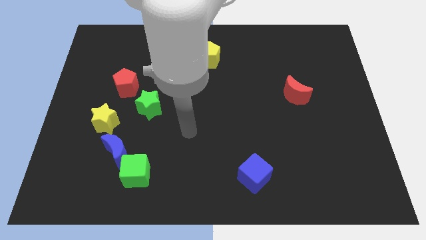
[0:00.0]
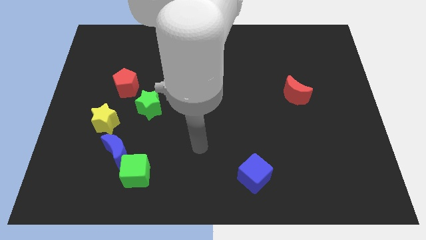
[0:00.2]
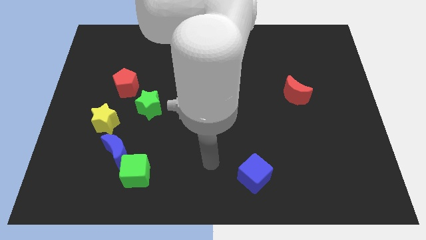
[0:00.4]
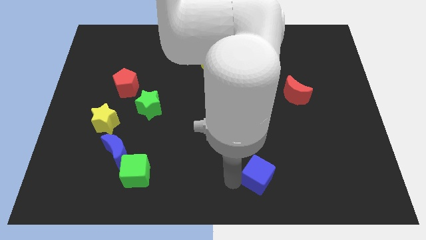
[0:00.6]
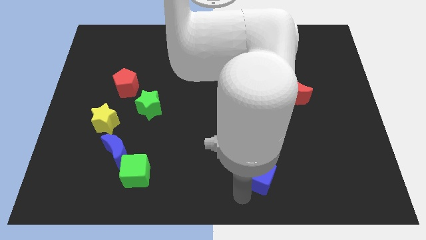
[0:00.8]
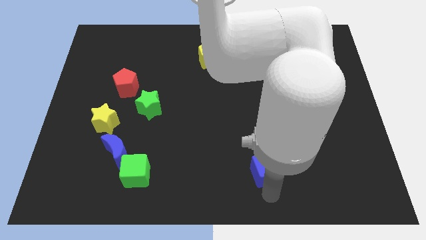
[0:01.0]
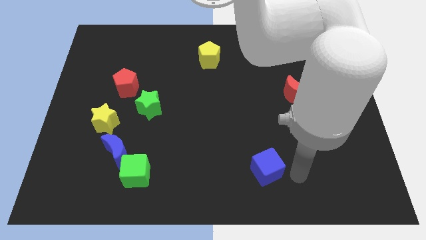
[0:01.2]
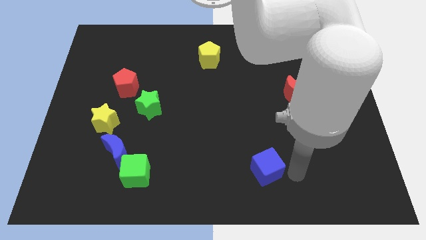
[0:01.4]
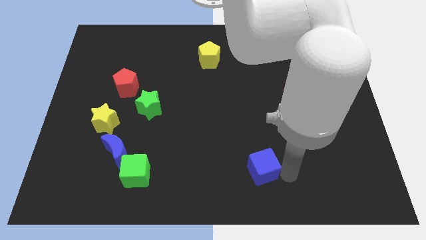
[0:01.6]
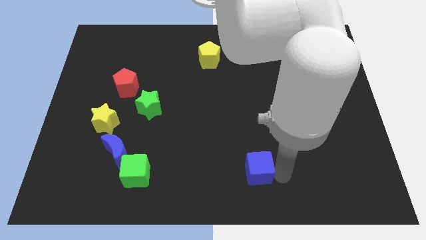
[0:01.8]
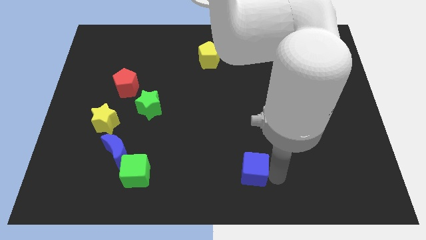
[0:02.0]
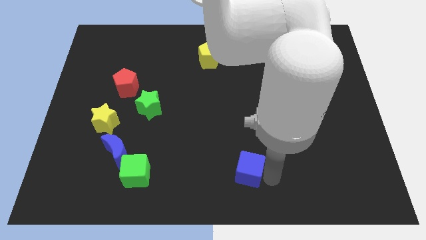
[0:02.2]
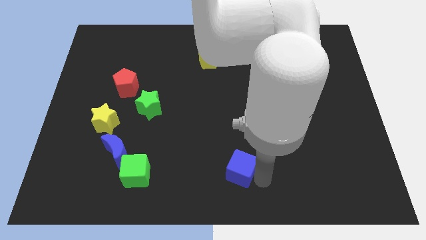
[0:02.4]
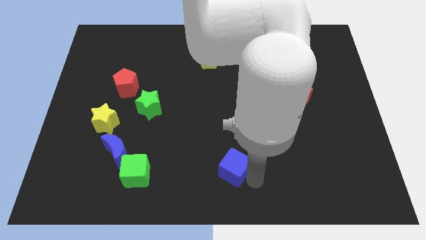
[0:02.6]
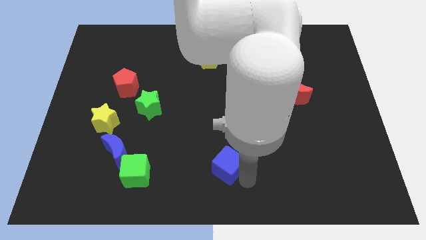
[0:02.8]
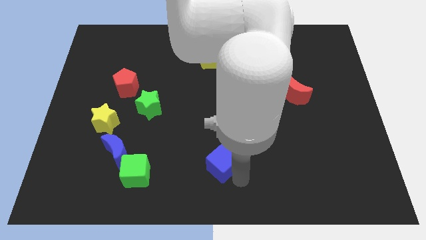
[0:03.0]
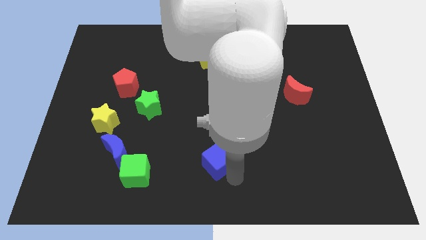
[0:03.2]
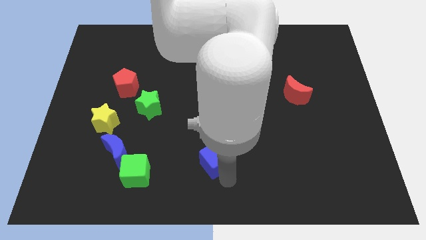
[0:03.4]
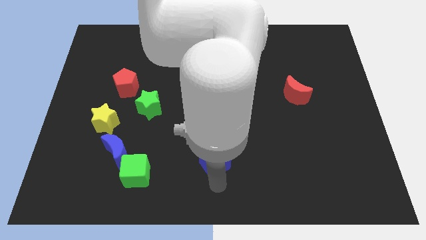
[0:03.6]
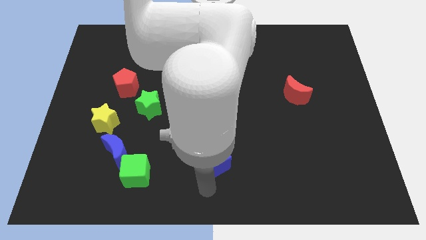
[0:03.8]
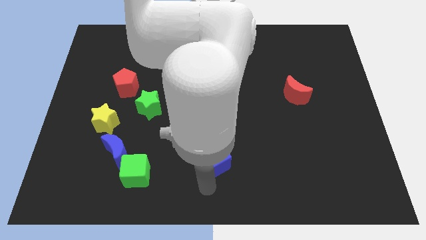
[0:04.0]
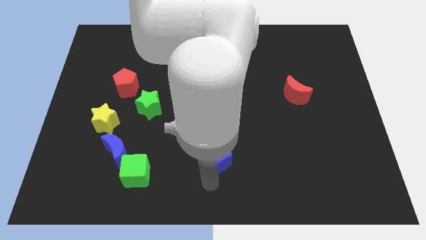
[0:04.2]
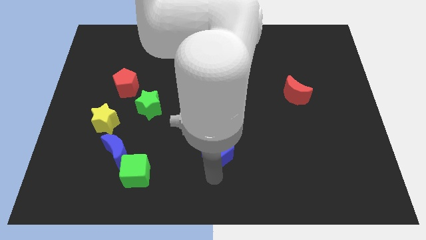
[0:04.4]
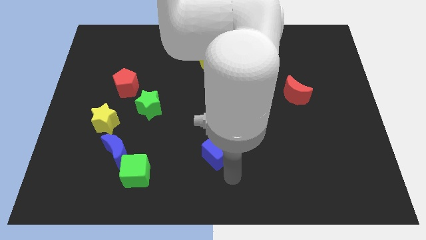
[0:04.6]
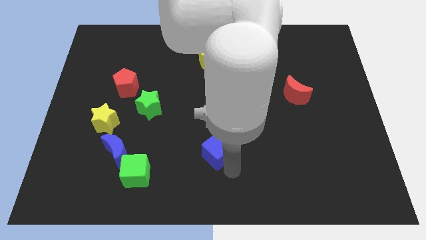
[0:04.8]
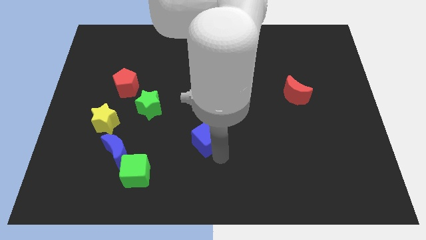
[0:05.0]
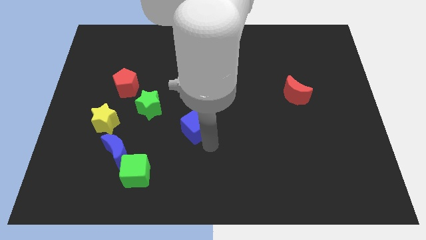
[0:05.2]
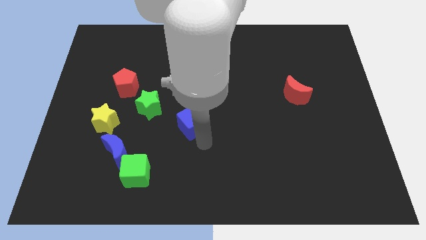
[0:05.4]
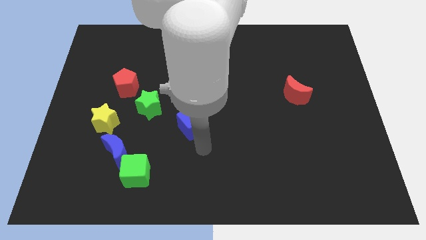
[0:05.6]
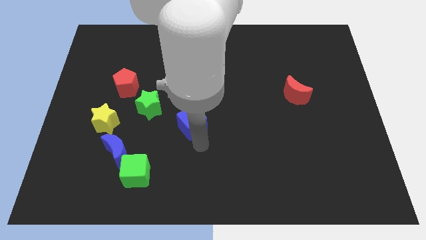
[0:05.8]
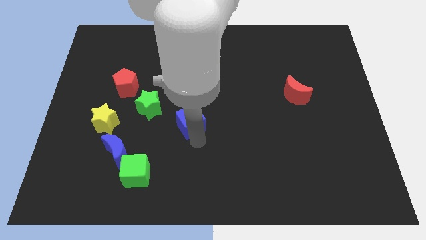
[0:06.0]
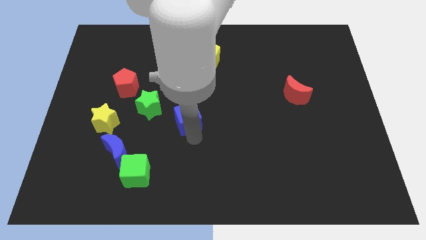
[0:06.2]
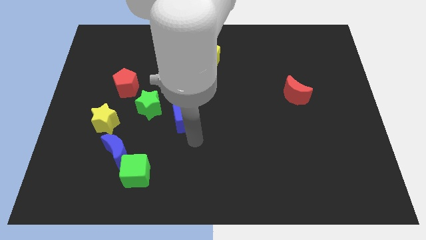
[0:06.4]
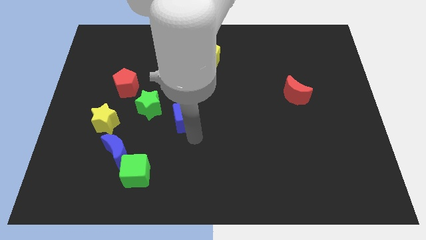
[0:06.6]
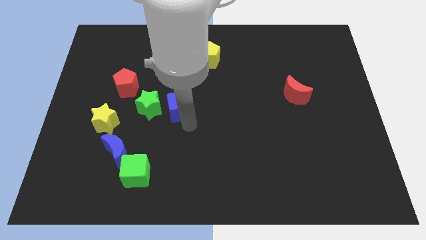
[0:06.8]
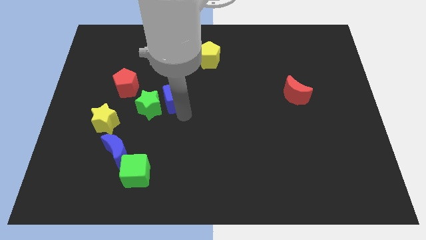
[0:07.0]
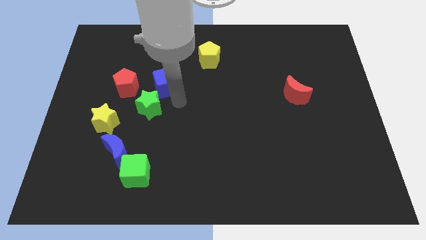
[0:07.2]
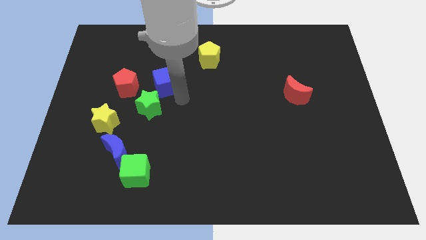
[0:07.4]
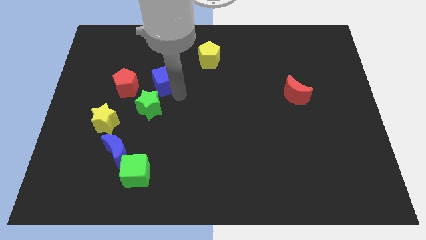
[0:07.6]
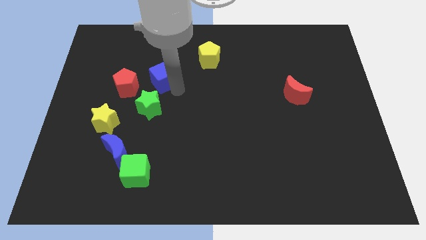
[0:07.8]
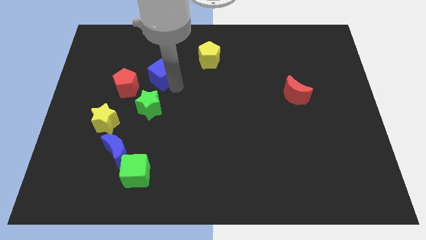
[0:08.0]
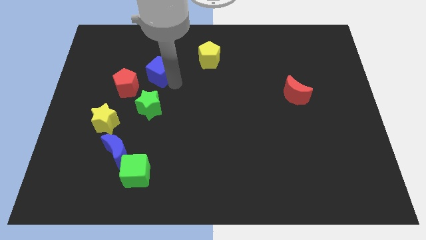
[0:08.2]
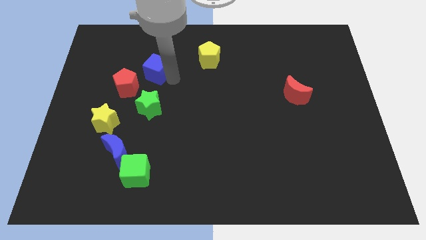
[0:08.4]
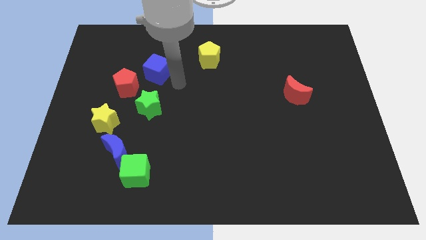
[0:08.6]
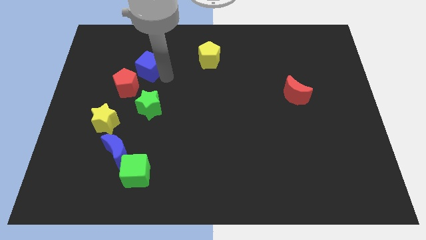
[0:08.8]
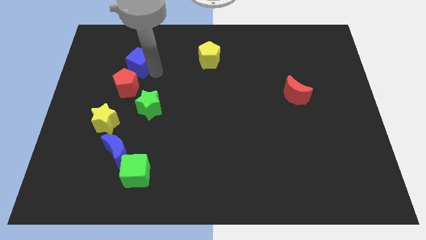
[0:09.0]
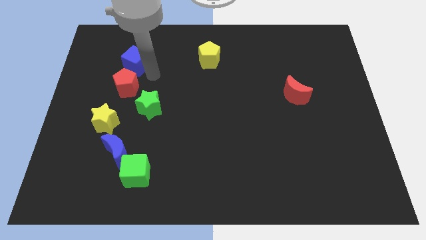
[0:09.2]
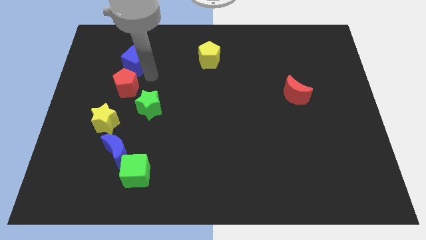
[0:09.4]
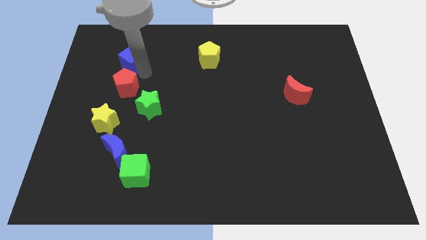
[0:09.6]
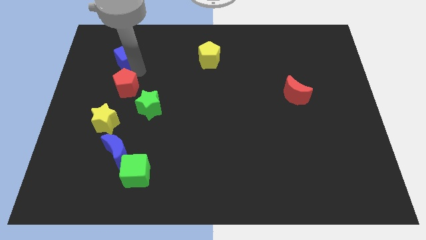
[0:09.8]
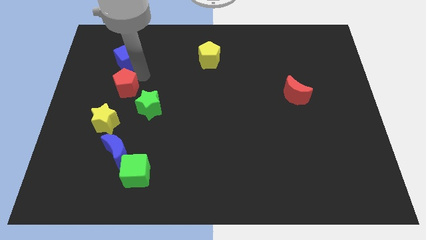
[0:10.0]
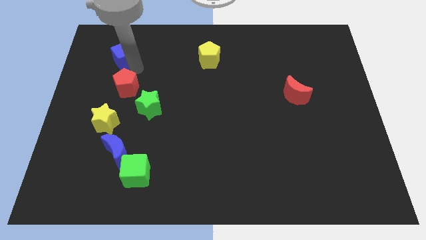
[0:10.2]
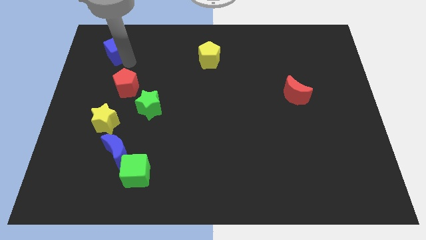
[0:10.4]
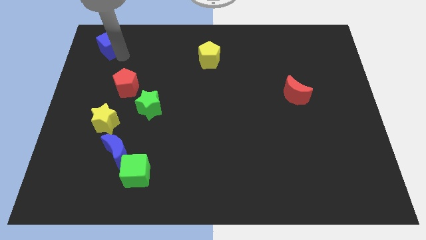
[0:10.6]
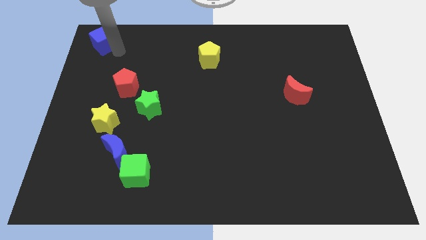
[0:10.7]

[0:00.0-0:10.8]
slide the blue cube to the upper left corner

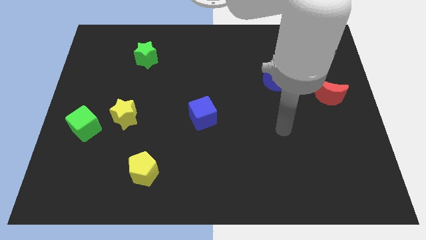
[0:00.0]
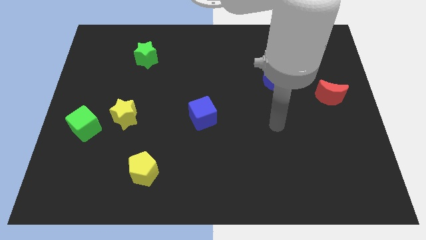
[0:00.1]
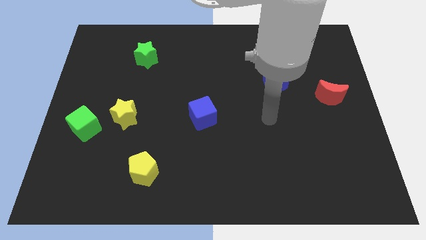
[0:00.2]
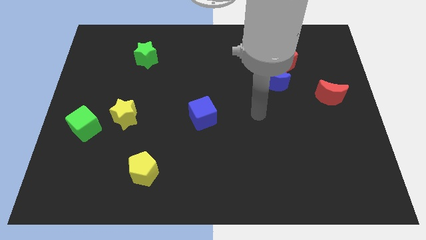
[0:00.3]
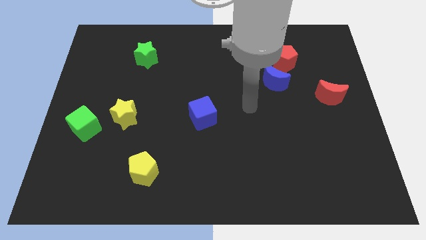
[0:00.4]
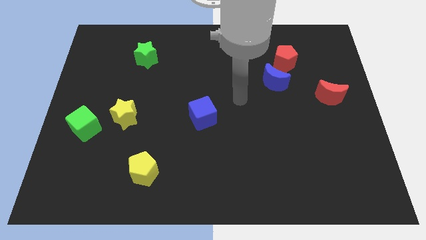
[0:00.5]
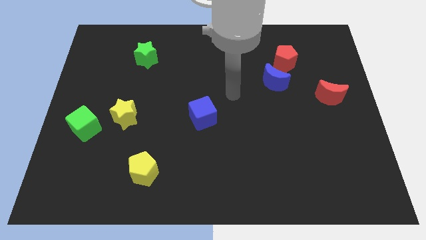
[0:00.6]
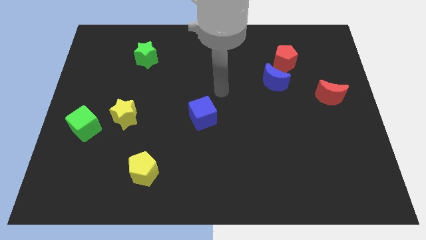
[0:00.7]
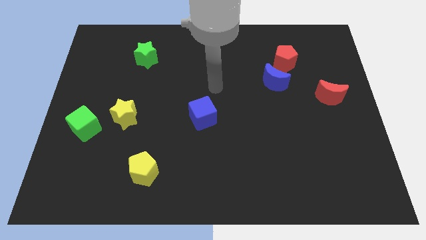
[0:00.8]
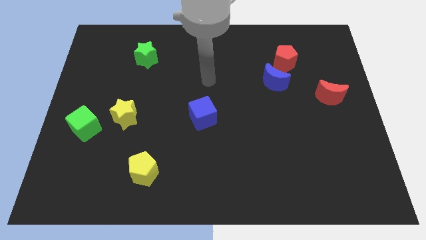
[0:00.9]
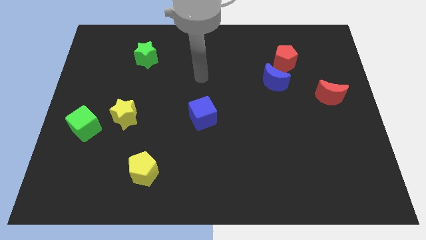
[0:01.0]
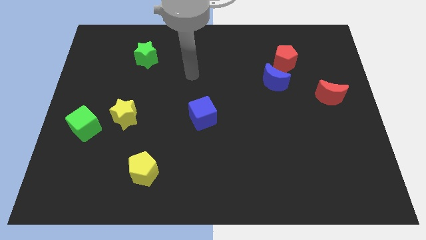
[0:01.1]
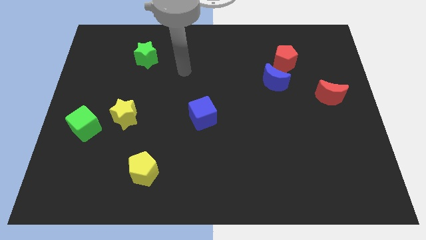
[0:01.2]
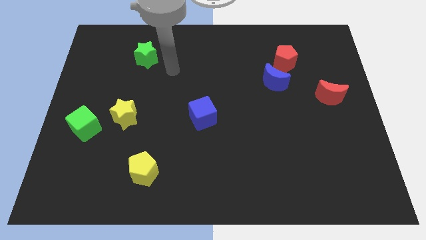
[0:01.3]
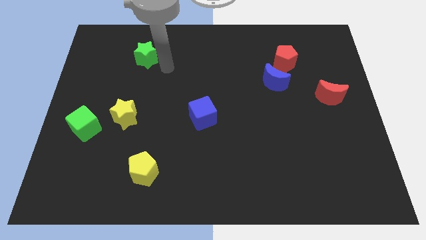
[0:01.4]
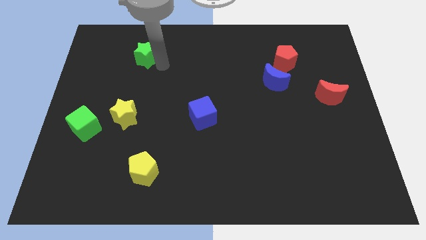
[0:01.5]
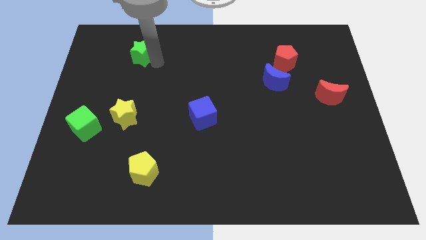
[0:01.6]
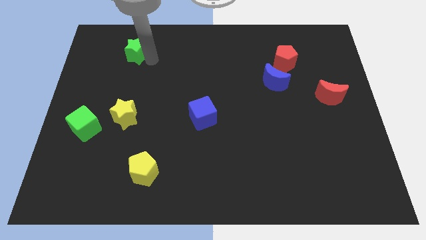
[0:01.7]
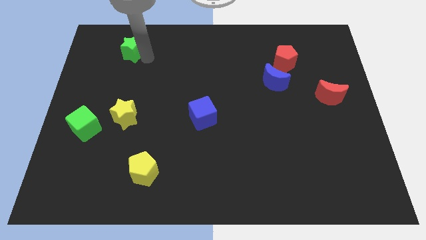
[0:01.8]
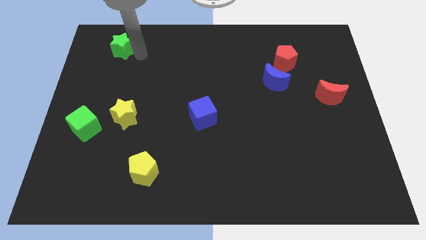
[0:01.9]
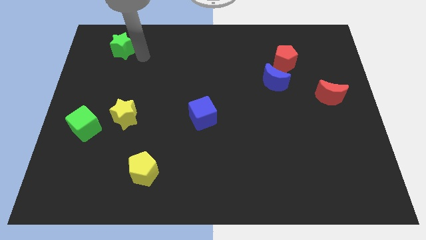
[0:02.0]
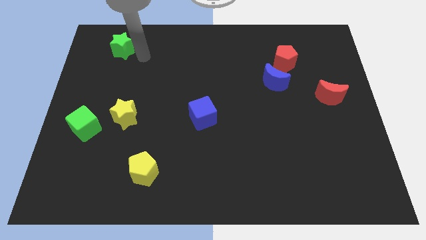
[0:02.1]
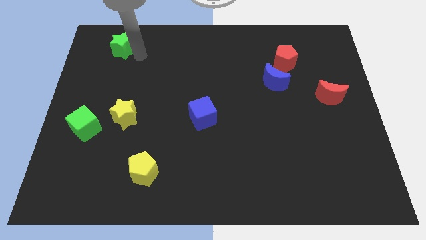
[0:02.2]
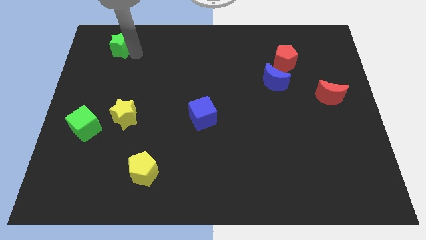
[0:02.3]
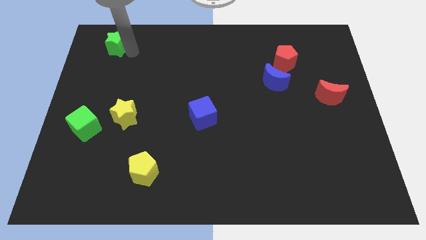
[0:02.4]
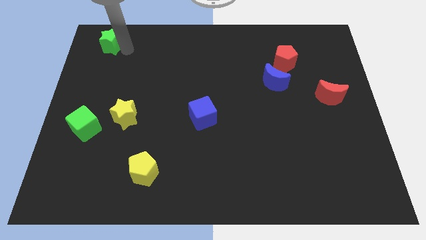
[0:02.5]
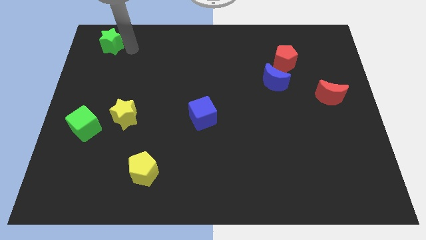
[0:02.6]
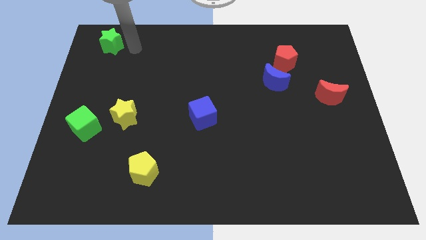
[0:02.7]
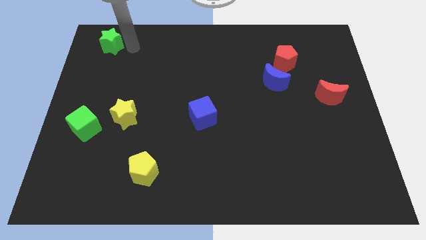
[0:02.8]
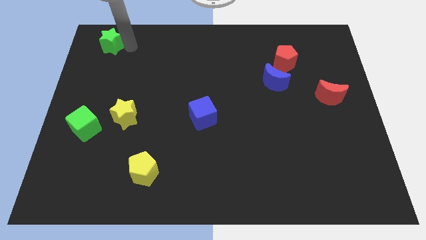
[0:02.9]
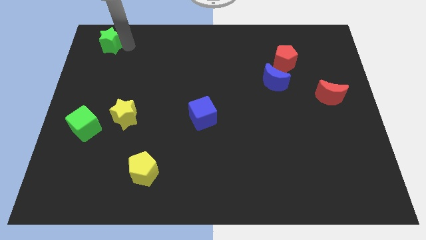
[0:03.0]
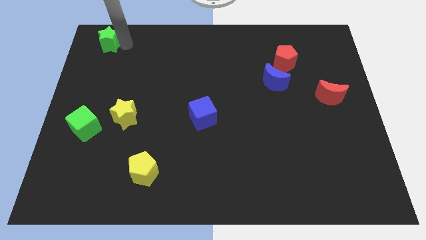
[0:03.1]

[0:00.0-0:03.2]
move the green star to the upper left corner
